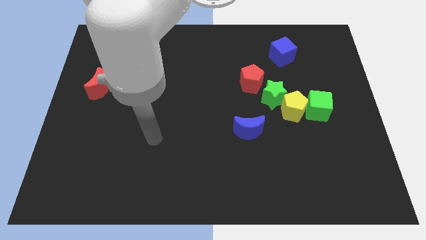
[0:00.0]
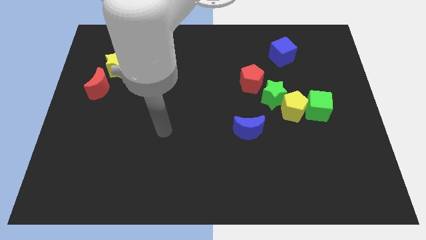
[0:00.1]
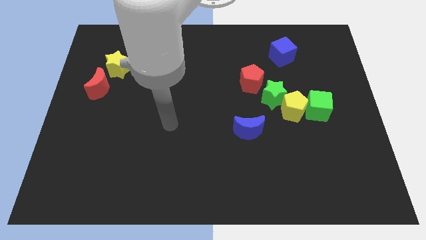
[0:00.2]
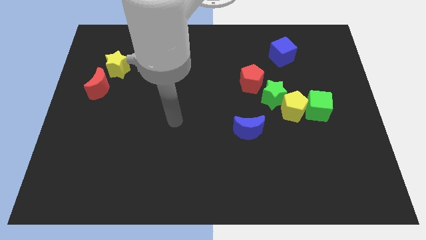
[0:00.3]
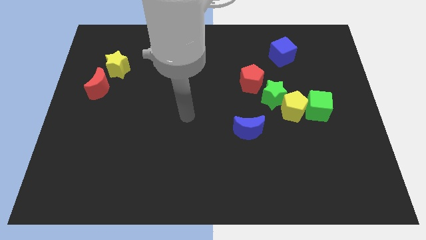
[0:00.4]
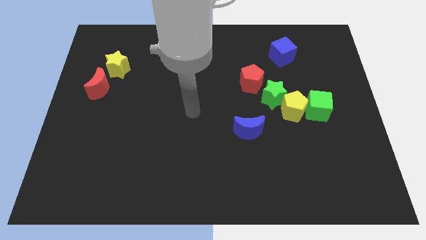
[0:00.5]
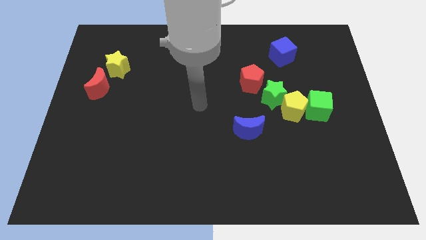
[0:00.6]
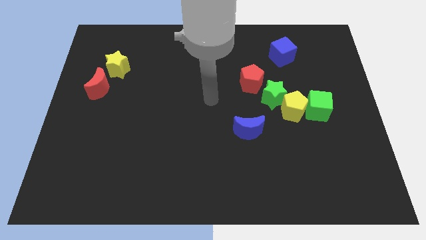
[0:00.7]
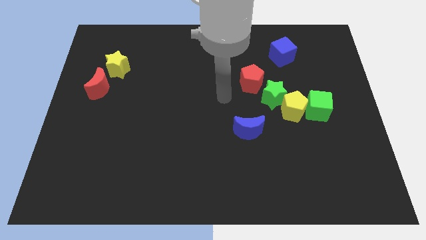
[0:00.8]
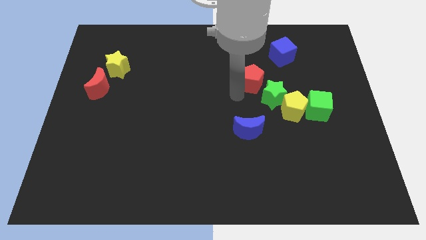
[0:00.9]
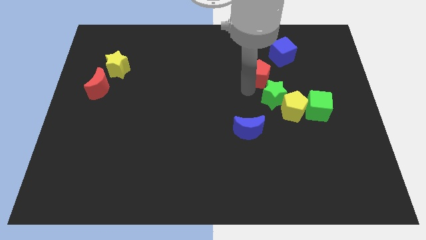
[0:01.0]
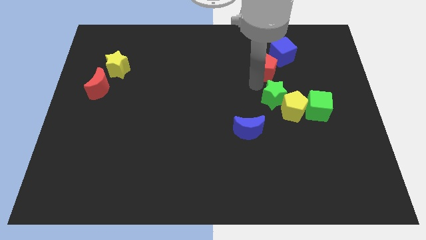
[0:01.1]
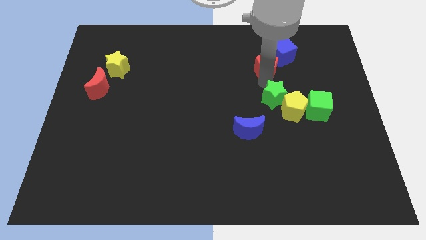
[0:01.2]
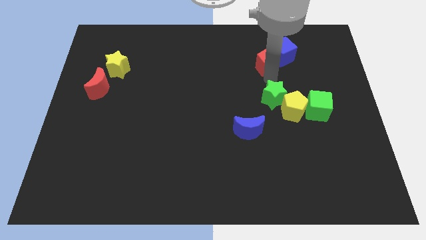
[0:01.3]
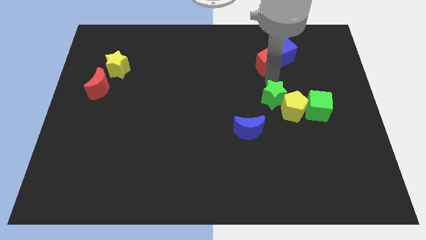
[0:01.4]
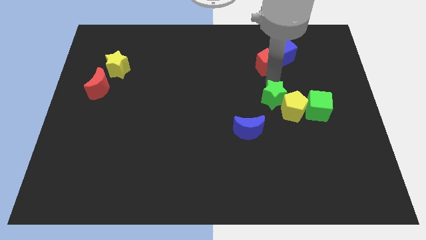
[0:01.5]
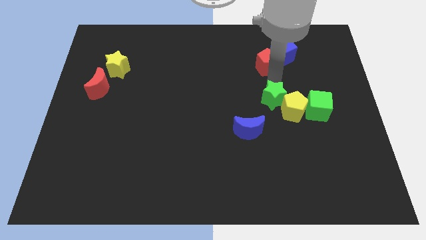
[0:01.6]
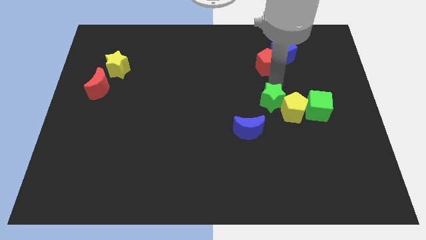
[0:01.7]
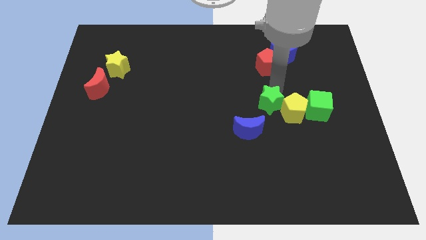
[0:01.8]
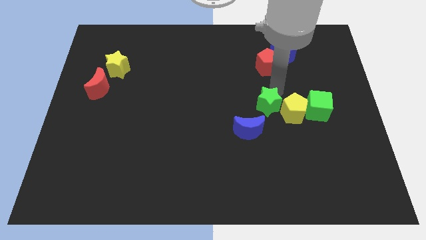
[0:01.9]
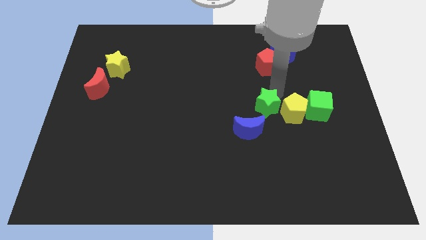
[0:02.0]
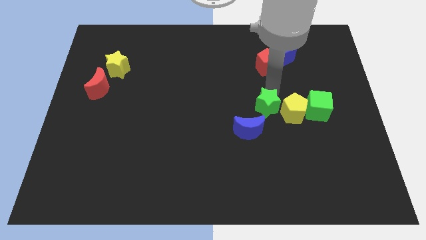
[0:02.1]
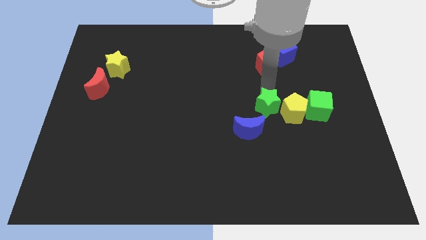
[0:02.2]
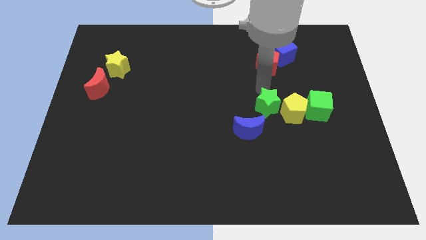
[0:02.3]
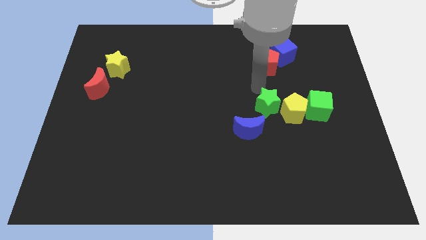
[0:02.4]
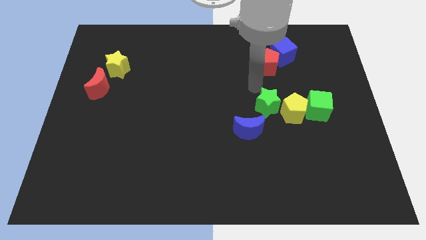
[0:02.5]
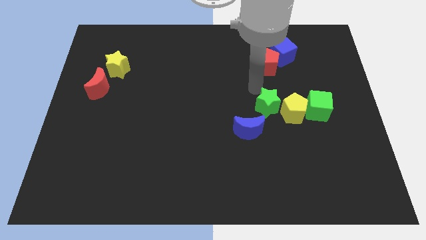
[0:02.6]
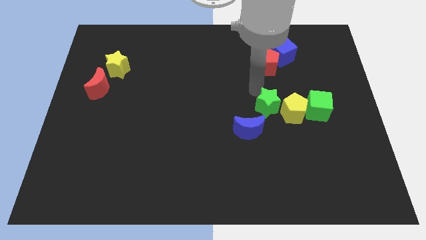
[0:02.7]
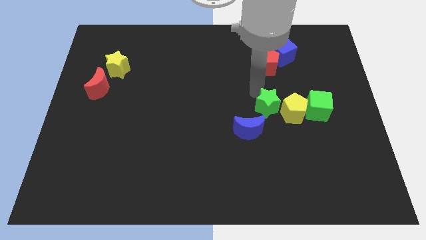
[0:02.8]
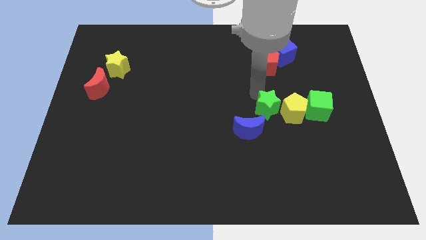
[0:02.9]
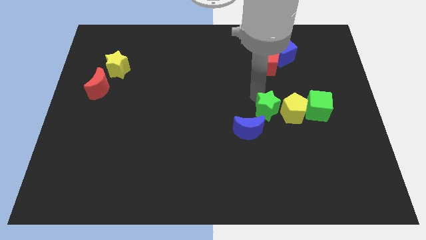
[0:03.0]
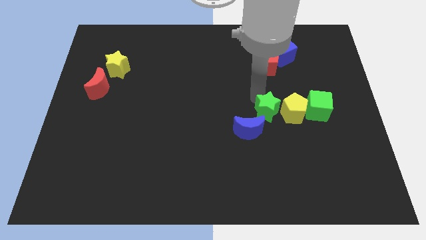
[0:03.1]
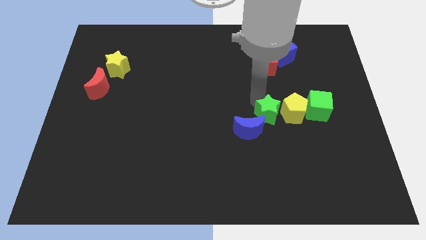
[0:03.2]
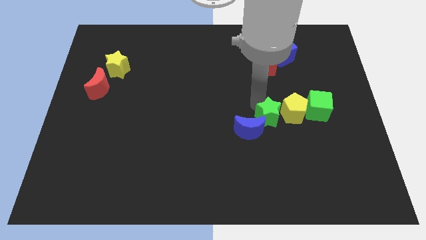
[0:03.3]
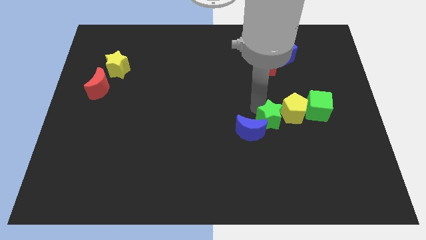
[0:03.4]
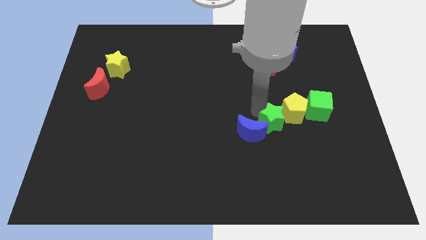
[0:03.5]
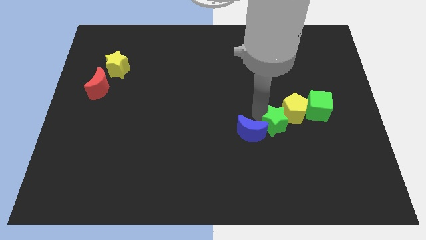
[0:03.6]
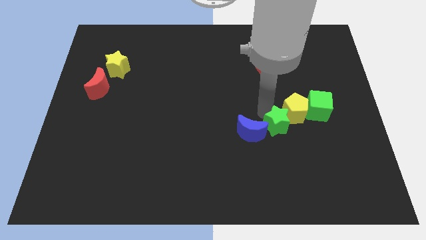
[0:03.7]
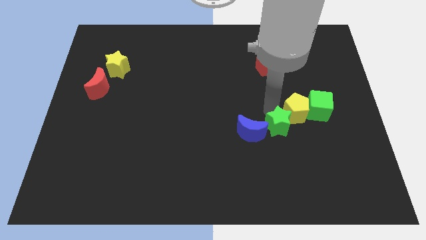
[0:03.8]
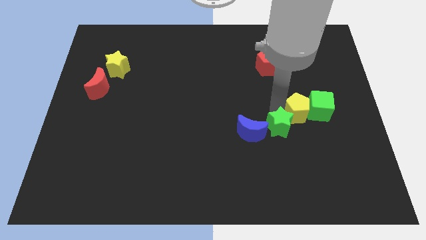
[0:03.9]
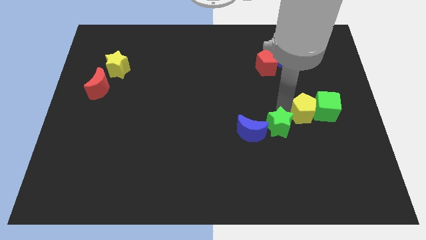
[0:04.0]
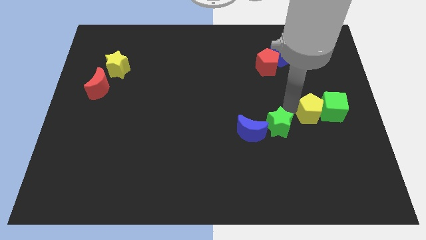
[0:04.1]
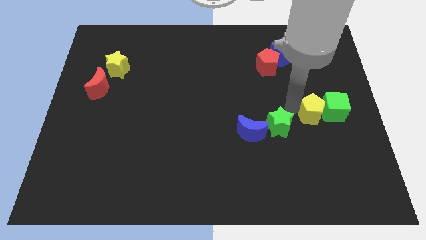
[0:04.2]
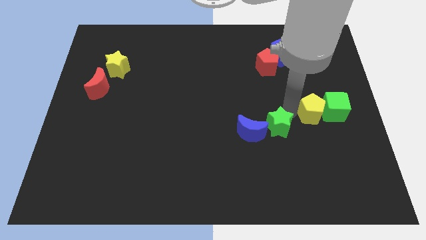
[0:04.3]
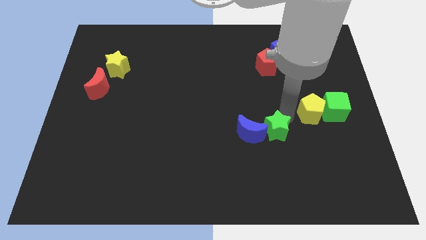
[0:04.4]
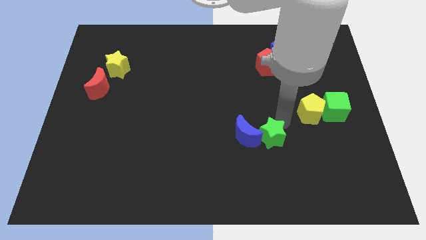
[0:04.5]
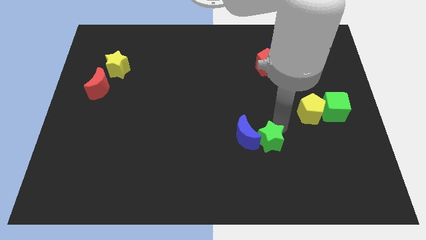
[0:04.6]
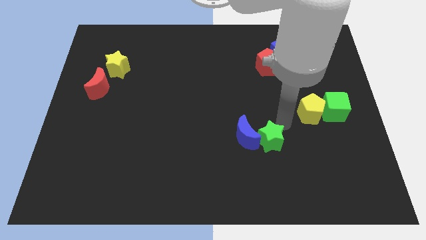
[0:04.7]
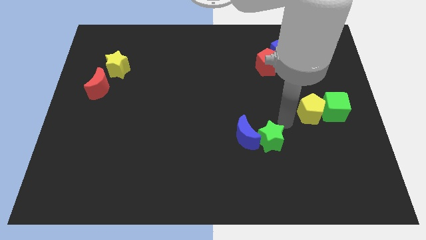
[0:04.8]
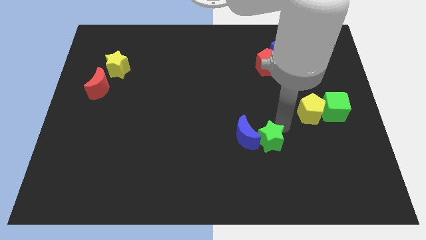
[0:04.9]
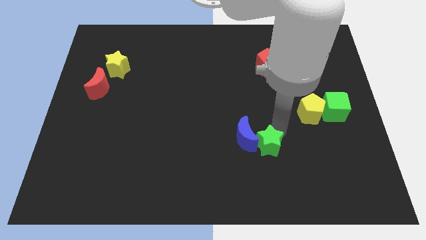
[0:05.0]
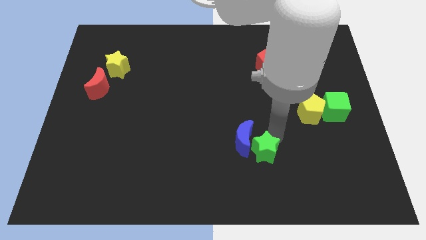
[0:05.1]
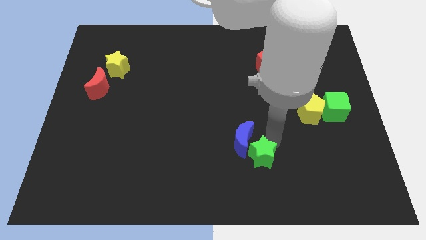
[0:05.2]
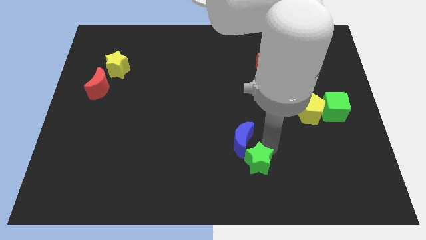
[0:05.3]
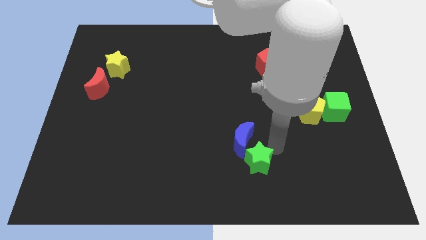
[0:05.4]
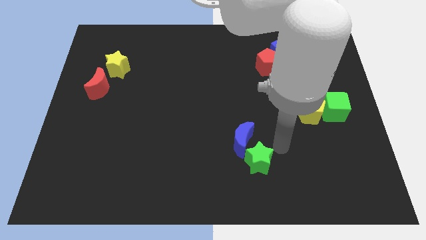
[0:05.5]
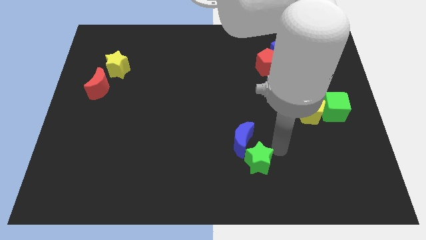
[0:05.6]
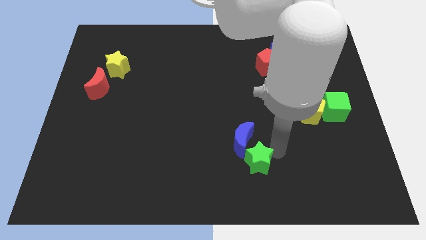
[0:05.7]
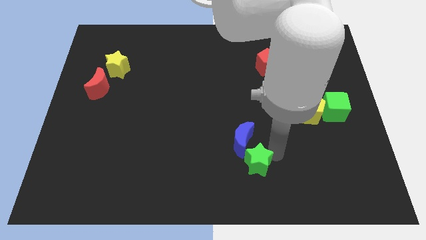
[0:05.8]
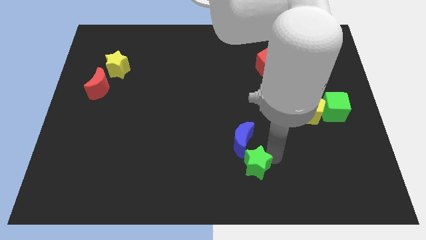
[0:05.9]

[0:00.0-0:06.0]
push the green star to the bottom side
